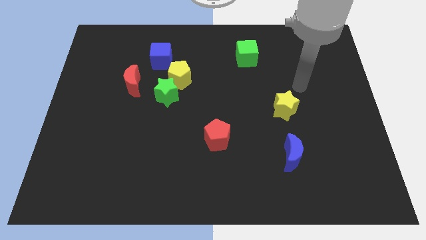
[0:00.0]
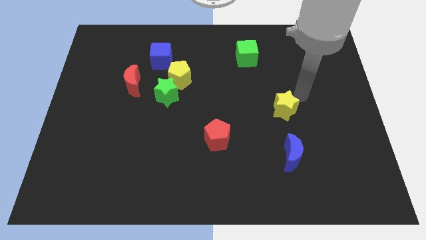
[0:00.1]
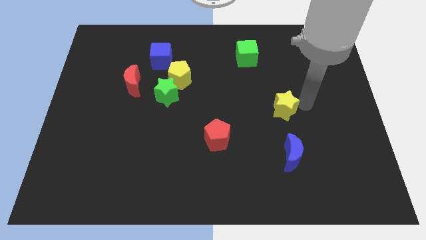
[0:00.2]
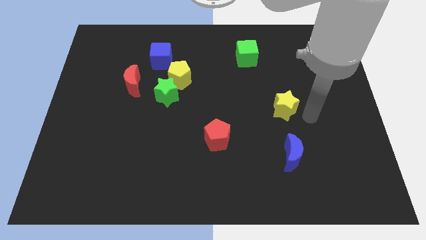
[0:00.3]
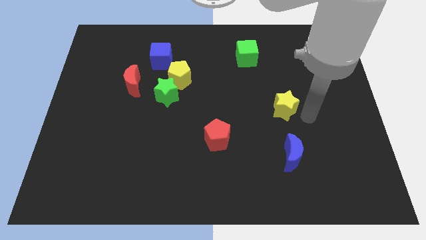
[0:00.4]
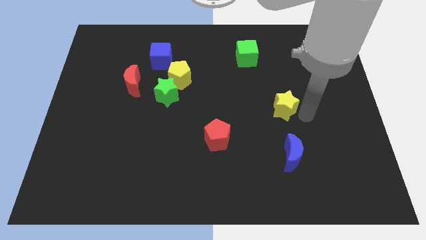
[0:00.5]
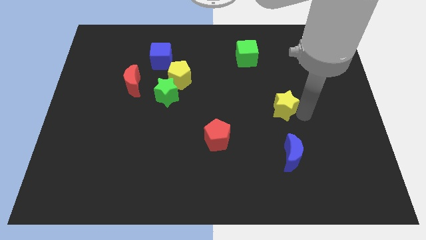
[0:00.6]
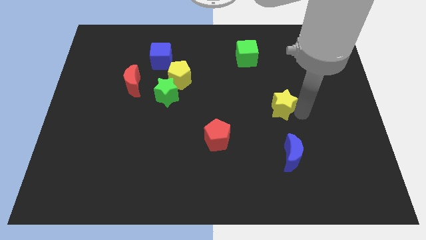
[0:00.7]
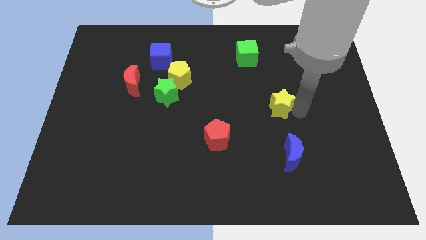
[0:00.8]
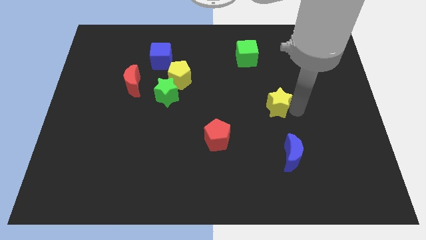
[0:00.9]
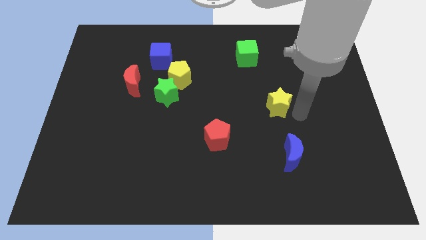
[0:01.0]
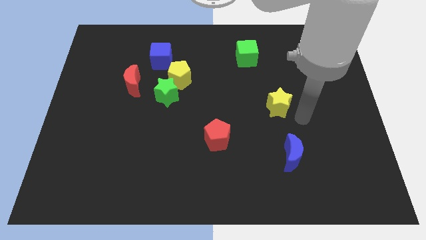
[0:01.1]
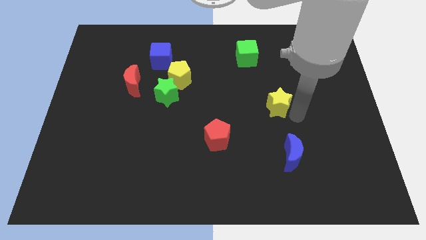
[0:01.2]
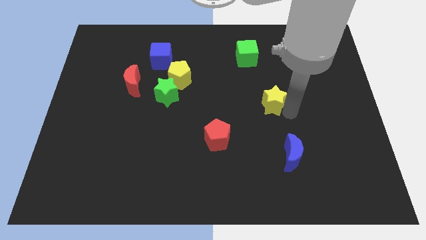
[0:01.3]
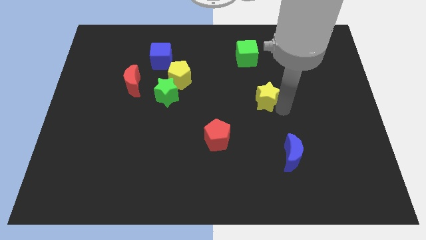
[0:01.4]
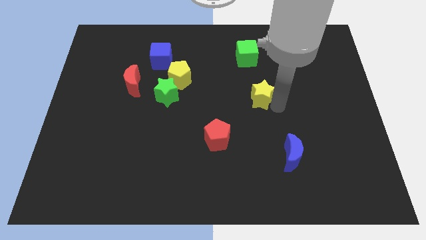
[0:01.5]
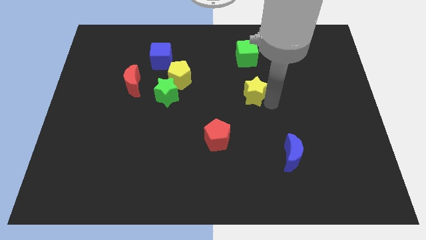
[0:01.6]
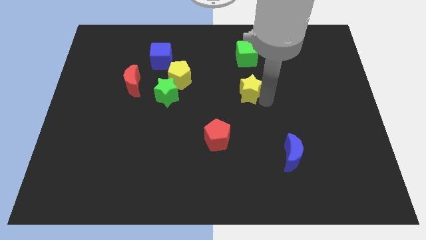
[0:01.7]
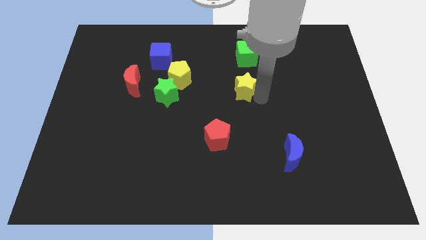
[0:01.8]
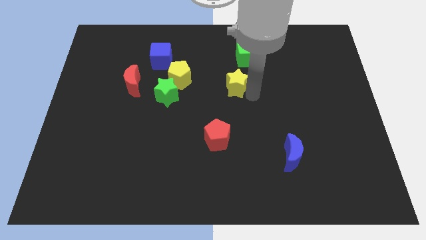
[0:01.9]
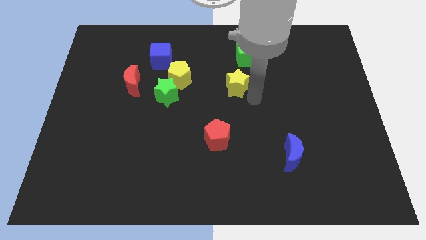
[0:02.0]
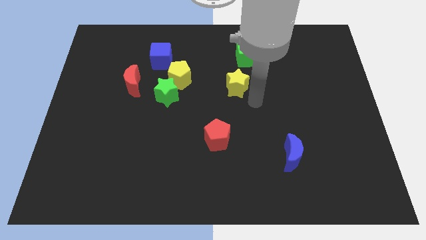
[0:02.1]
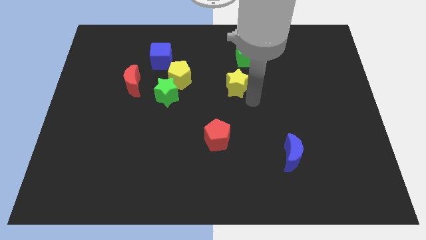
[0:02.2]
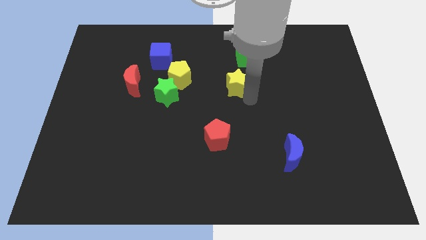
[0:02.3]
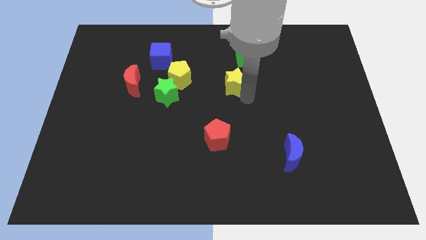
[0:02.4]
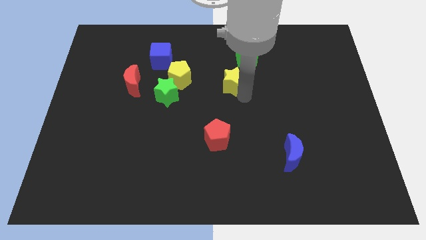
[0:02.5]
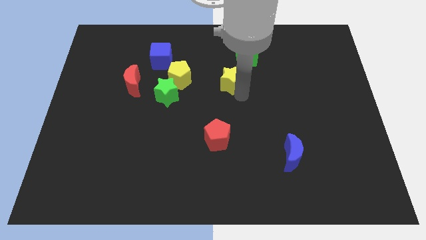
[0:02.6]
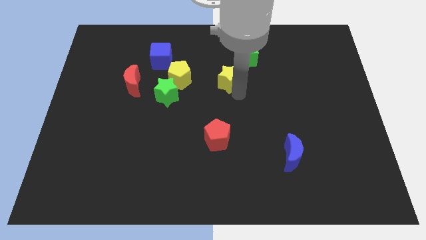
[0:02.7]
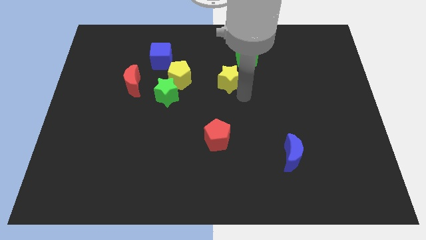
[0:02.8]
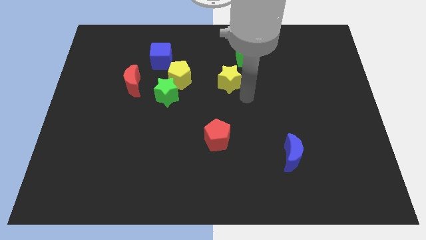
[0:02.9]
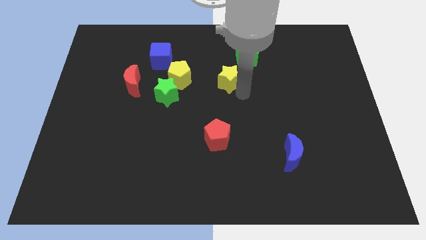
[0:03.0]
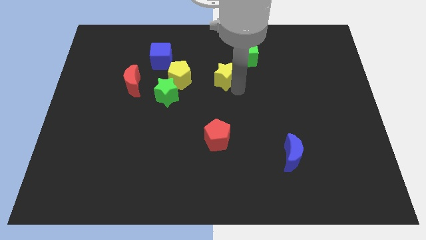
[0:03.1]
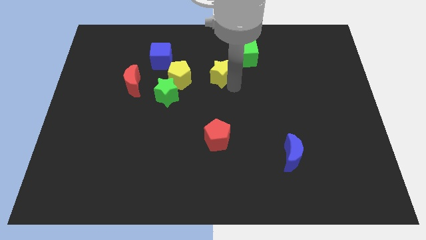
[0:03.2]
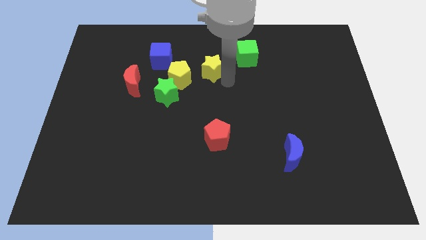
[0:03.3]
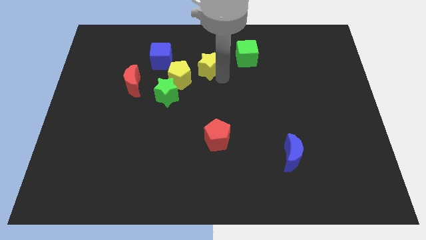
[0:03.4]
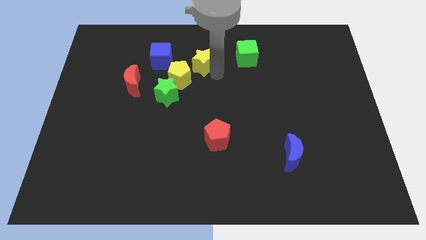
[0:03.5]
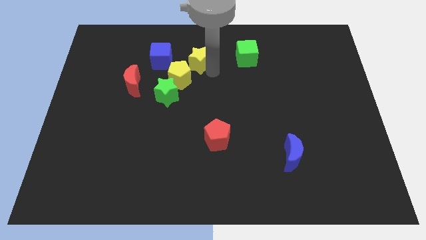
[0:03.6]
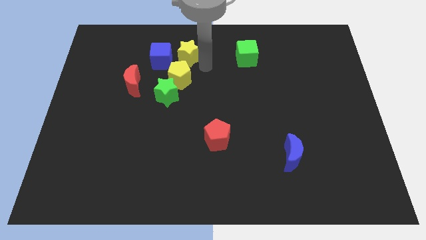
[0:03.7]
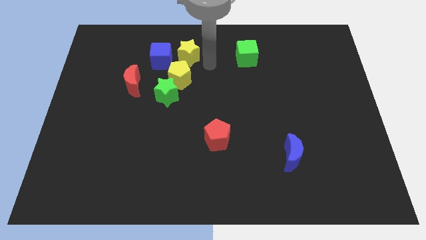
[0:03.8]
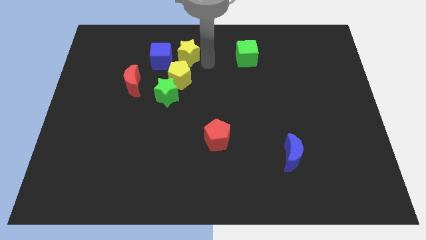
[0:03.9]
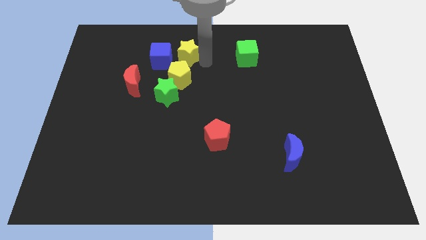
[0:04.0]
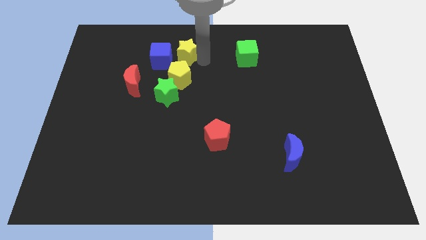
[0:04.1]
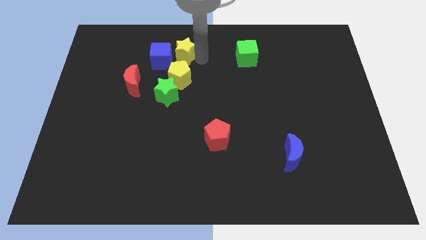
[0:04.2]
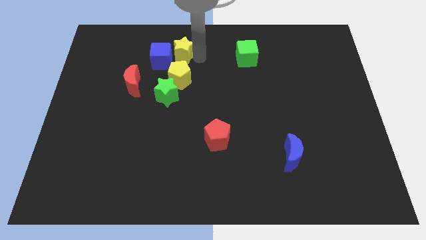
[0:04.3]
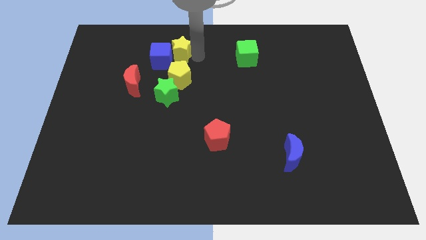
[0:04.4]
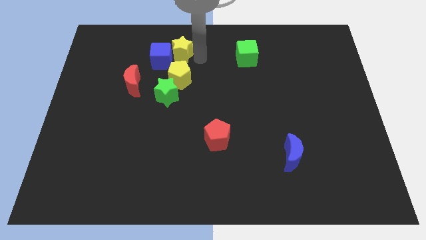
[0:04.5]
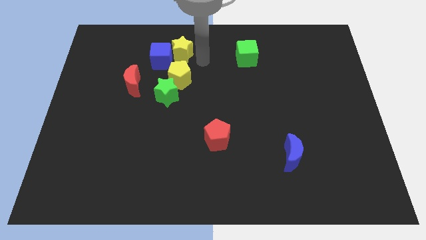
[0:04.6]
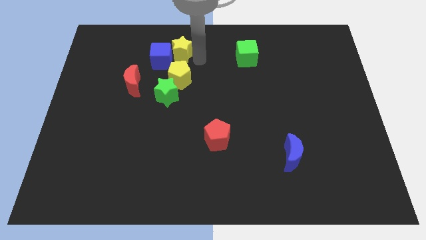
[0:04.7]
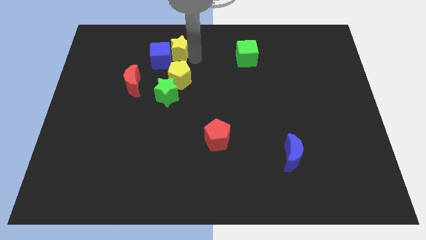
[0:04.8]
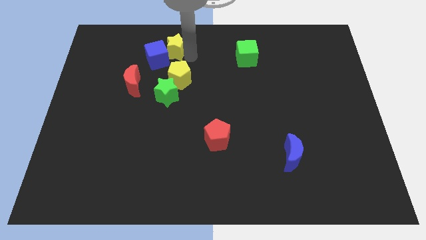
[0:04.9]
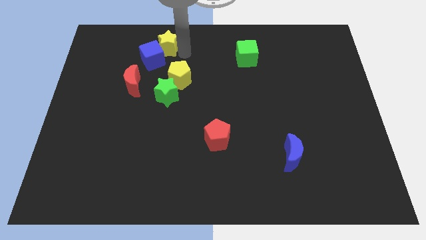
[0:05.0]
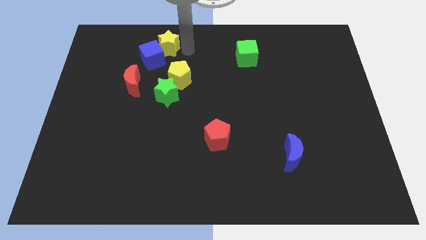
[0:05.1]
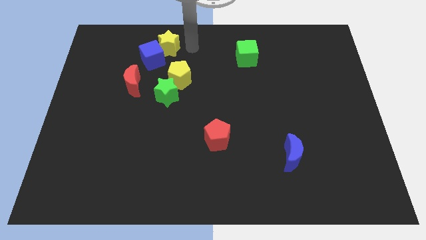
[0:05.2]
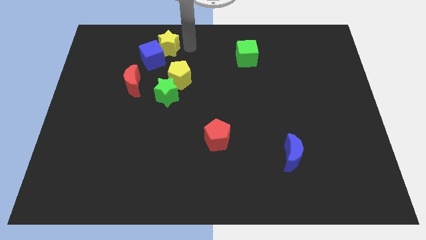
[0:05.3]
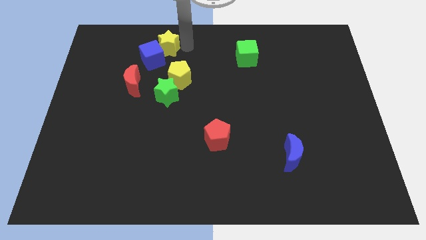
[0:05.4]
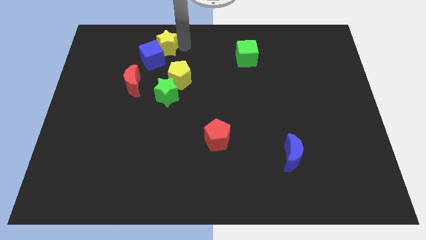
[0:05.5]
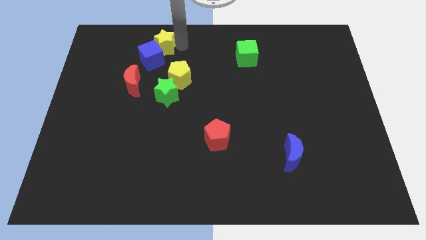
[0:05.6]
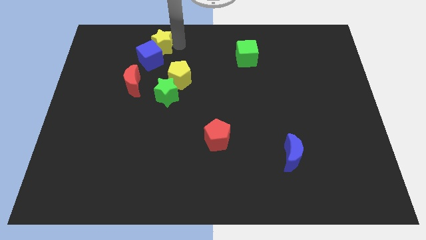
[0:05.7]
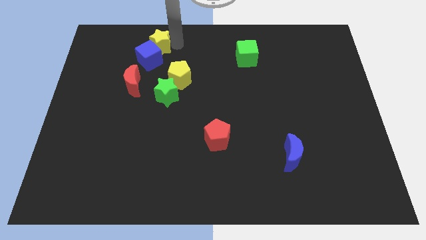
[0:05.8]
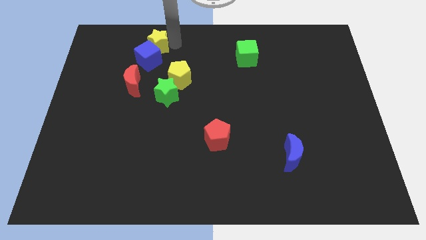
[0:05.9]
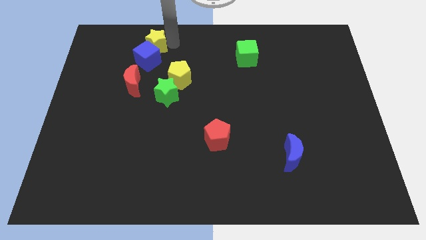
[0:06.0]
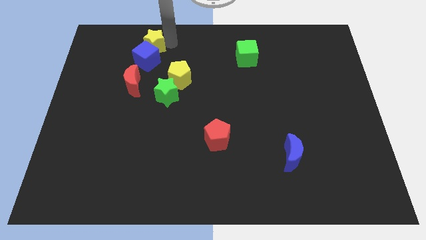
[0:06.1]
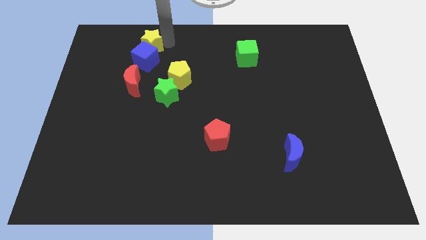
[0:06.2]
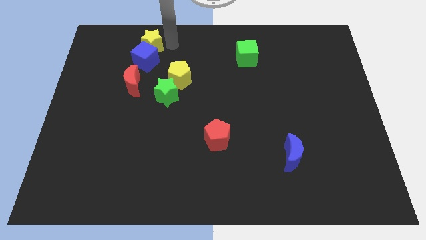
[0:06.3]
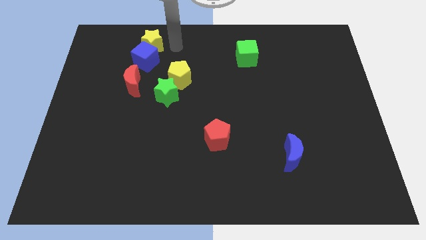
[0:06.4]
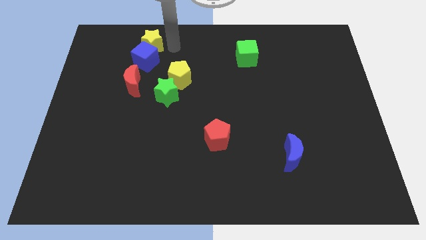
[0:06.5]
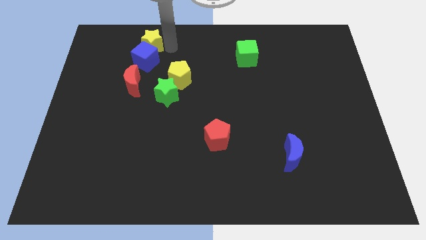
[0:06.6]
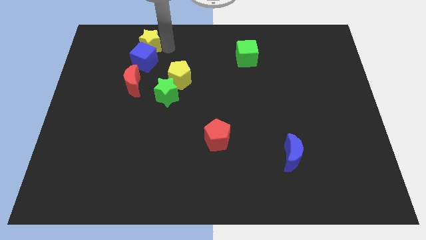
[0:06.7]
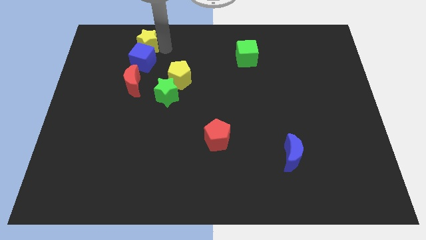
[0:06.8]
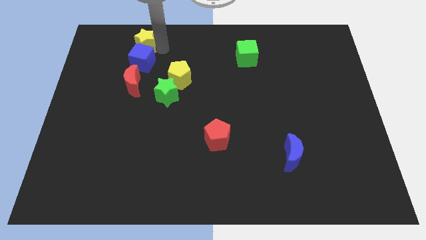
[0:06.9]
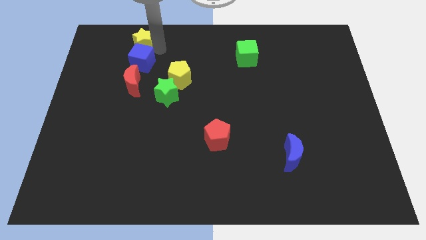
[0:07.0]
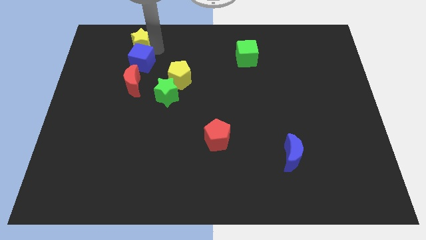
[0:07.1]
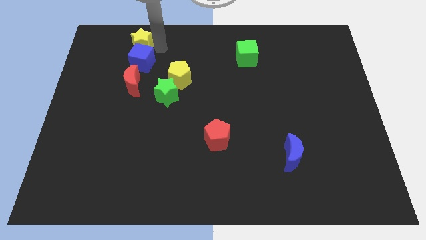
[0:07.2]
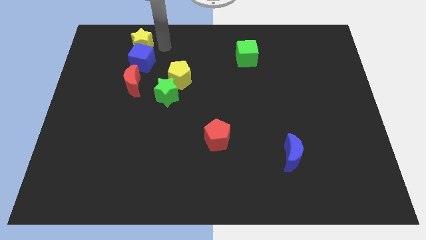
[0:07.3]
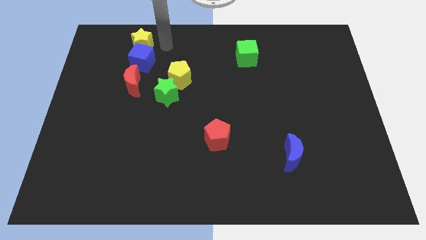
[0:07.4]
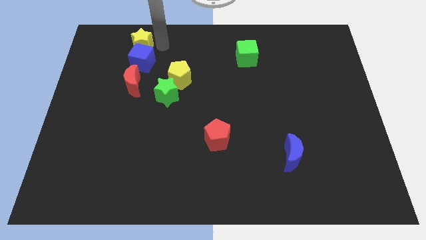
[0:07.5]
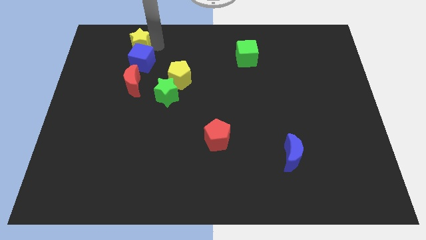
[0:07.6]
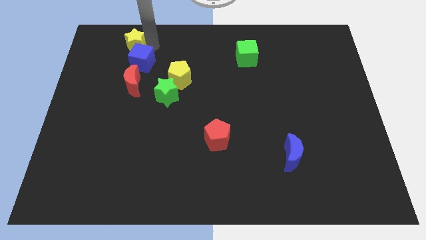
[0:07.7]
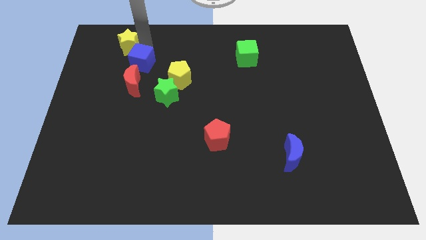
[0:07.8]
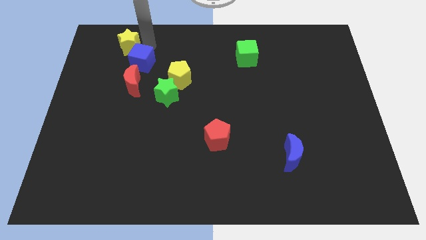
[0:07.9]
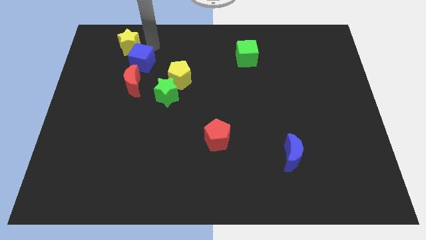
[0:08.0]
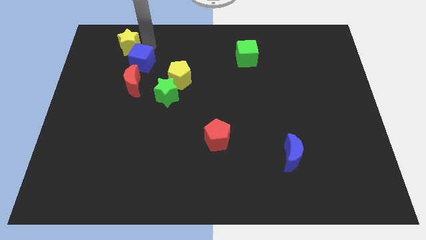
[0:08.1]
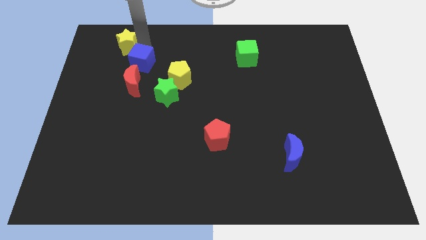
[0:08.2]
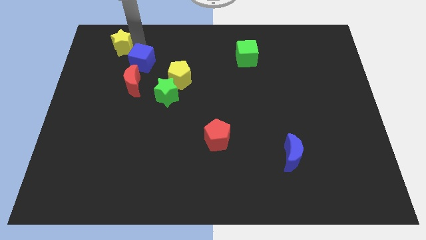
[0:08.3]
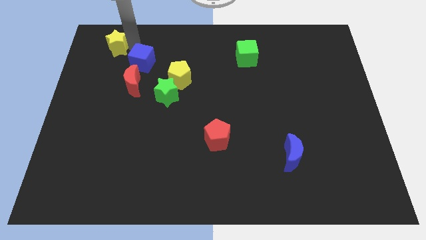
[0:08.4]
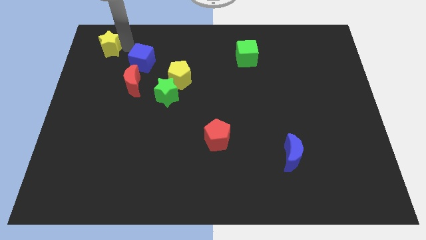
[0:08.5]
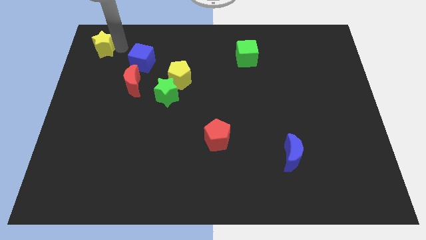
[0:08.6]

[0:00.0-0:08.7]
move the yellow star to the upper left corner
